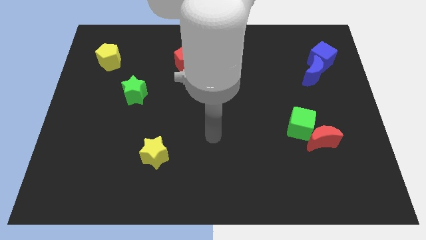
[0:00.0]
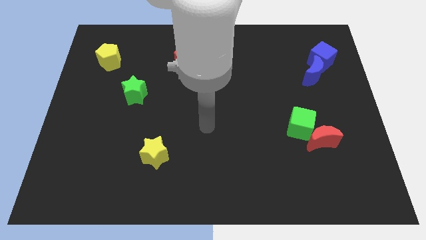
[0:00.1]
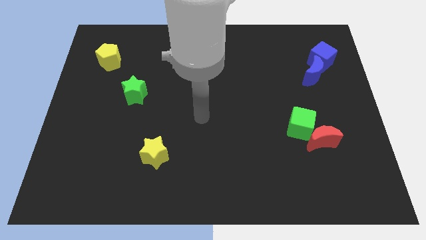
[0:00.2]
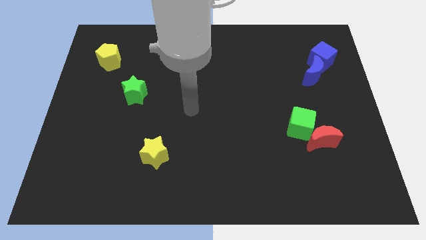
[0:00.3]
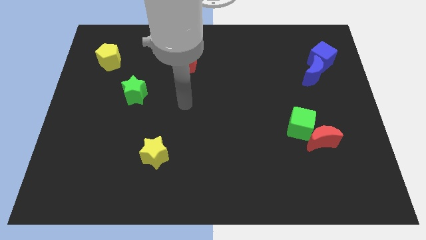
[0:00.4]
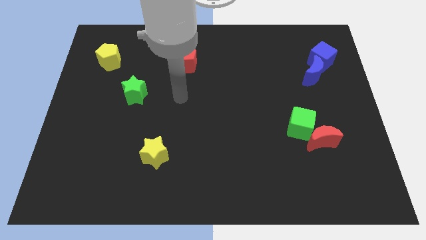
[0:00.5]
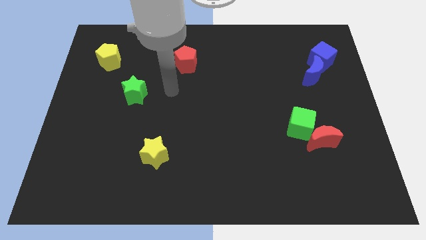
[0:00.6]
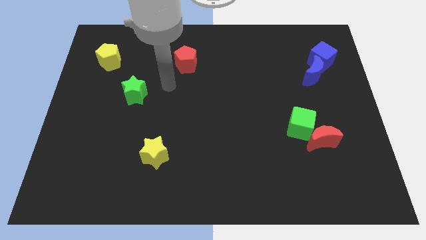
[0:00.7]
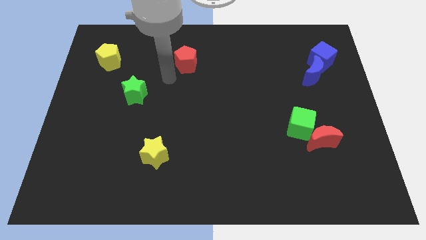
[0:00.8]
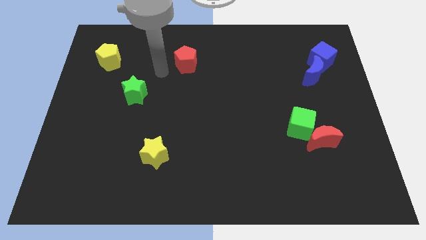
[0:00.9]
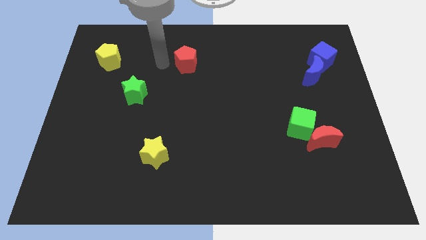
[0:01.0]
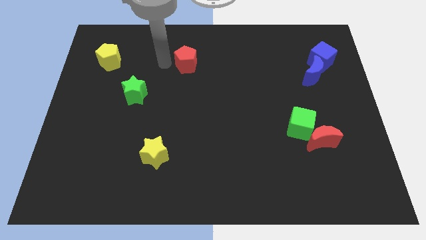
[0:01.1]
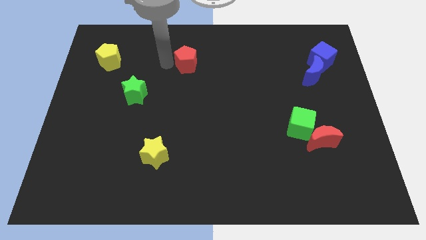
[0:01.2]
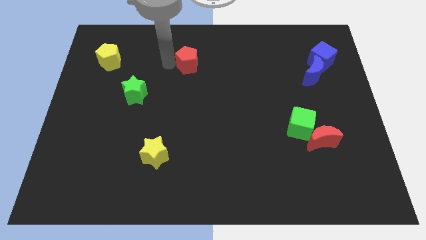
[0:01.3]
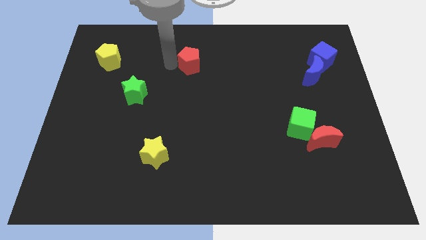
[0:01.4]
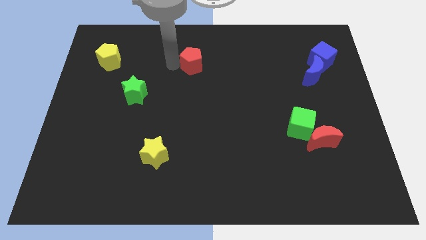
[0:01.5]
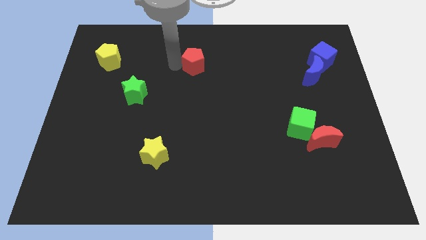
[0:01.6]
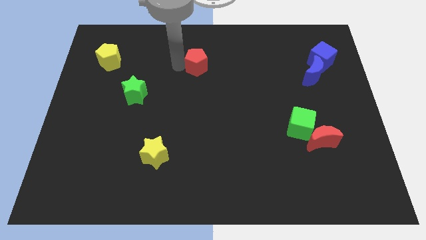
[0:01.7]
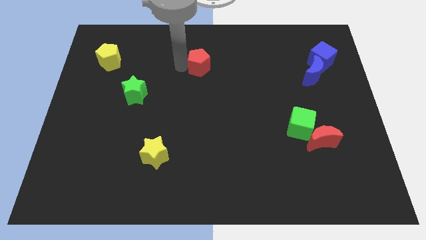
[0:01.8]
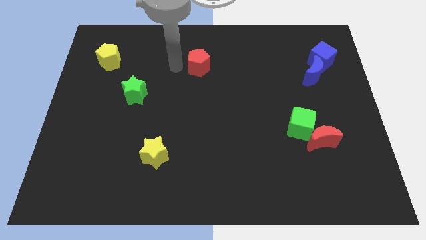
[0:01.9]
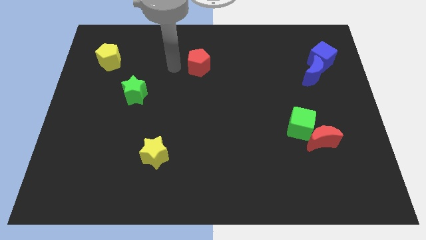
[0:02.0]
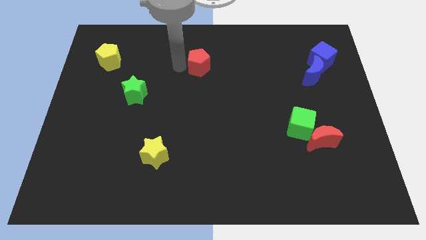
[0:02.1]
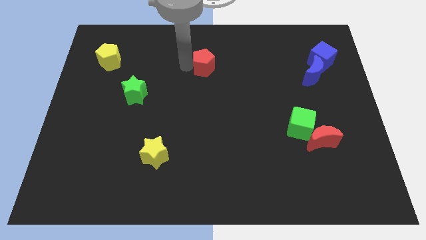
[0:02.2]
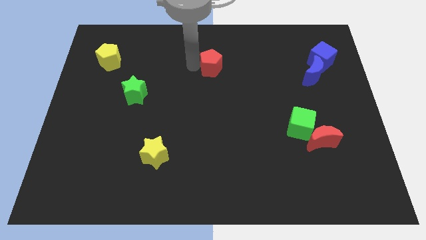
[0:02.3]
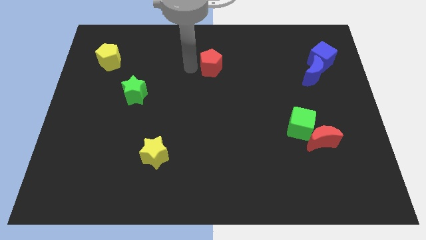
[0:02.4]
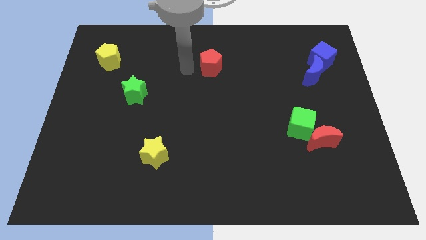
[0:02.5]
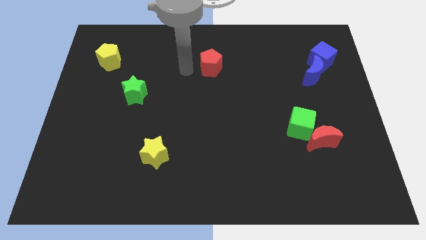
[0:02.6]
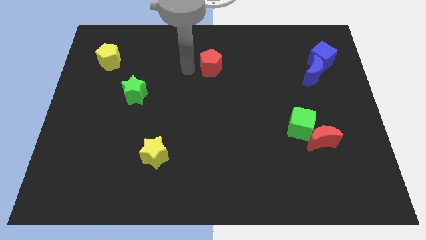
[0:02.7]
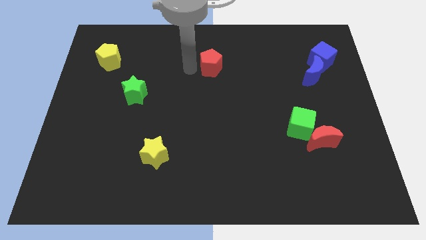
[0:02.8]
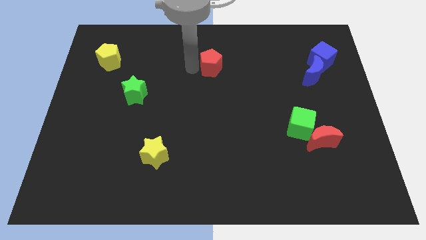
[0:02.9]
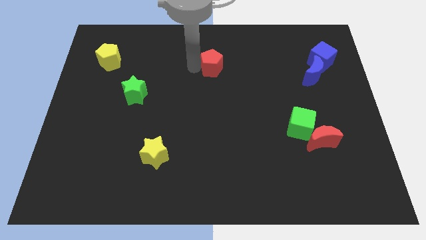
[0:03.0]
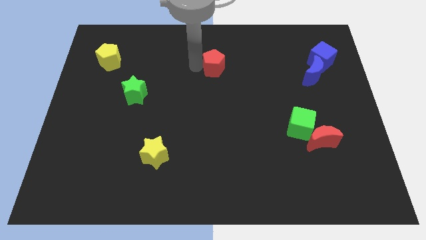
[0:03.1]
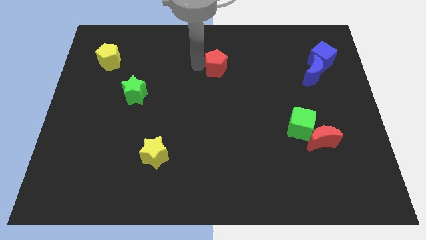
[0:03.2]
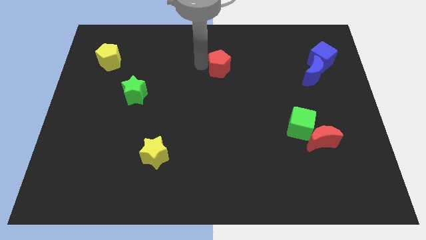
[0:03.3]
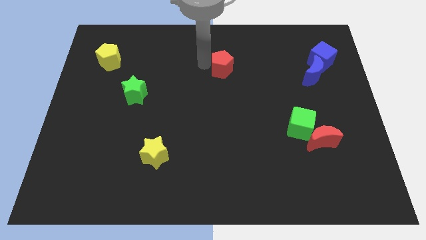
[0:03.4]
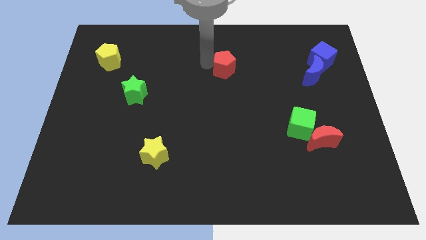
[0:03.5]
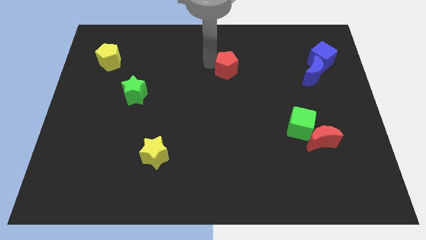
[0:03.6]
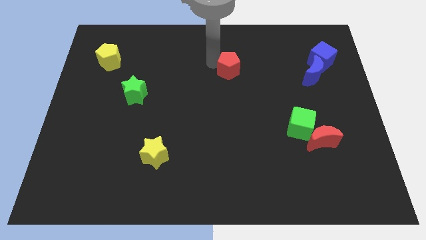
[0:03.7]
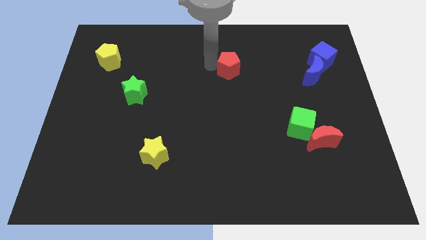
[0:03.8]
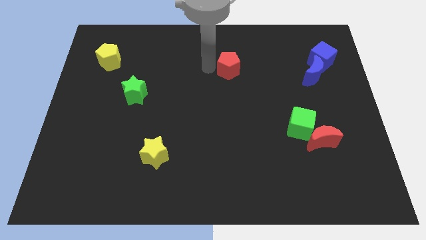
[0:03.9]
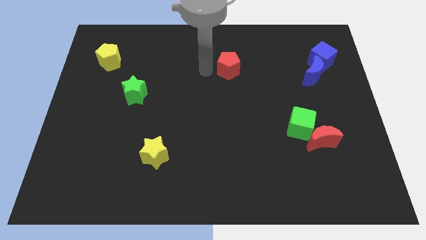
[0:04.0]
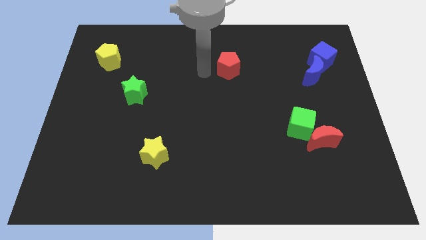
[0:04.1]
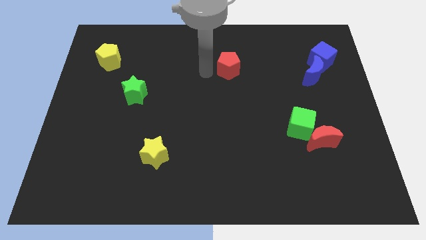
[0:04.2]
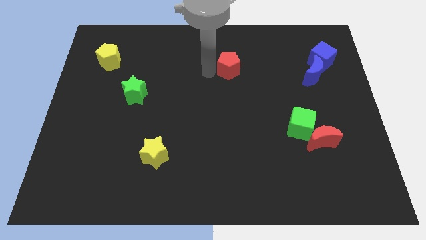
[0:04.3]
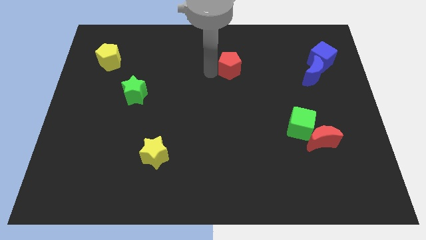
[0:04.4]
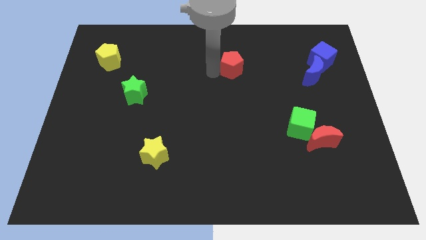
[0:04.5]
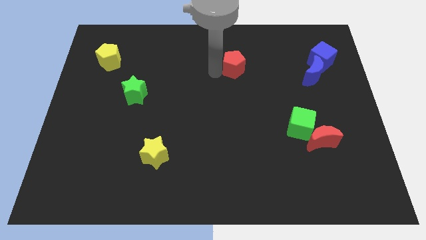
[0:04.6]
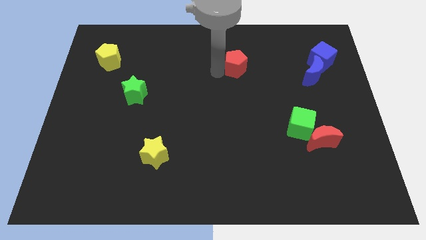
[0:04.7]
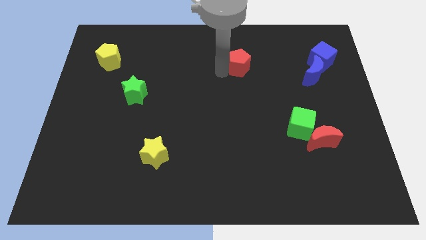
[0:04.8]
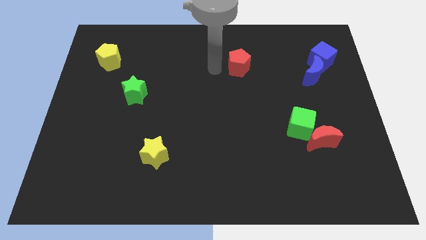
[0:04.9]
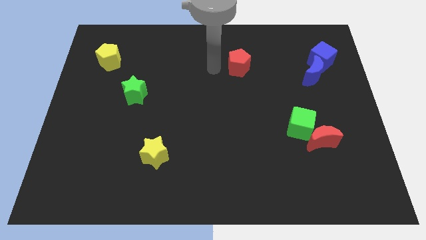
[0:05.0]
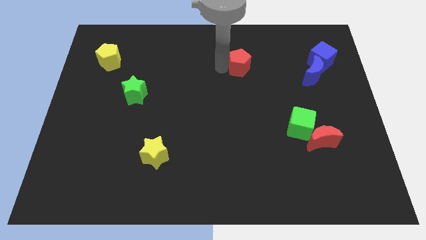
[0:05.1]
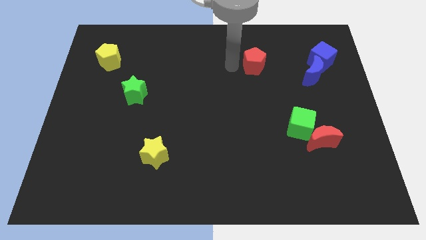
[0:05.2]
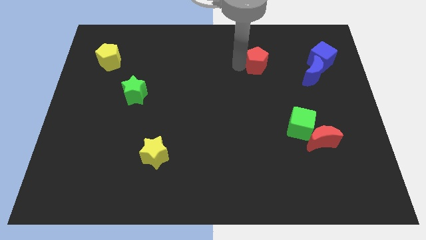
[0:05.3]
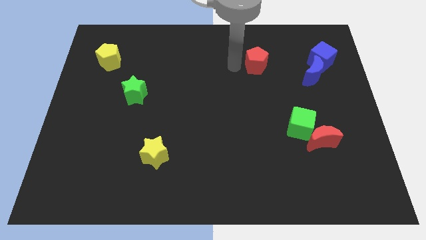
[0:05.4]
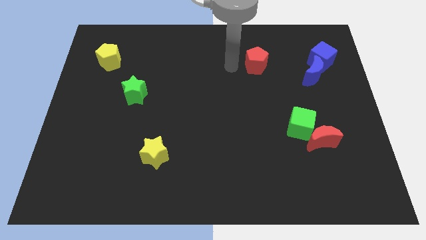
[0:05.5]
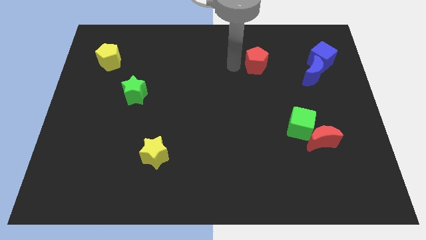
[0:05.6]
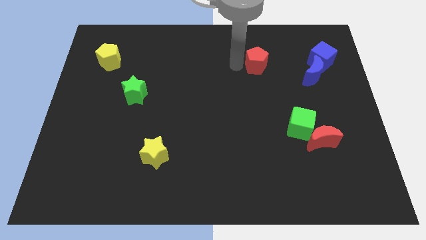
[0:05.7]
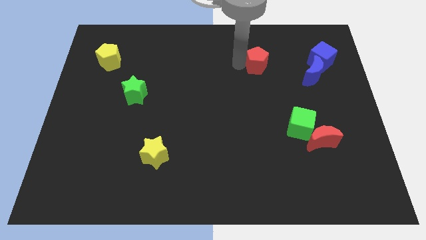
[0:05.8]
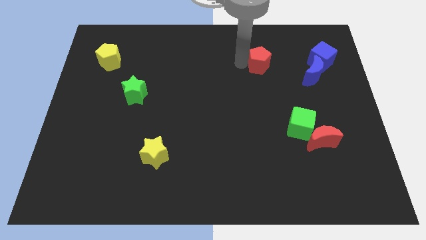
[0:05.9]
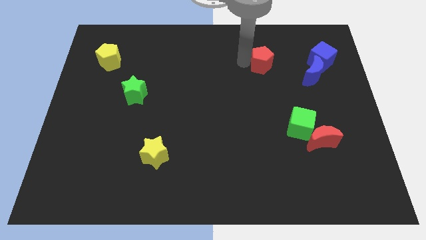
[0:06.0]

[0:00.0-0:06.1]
slide the red pentagon to the left side of the blue cube

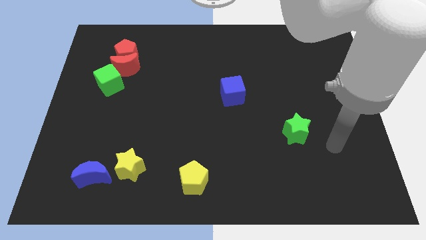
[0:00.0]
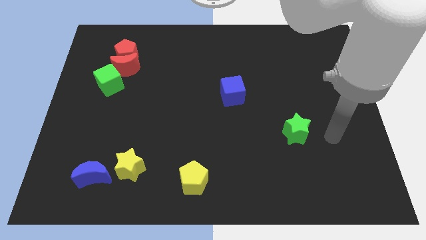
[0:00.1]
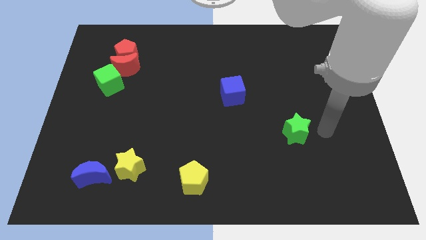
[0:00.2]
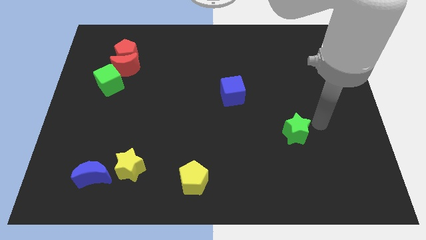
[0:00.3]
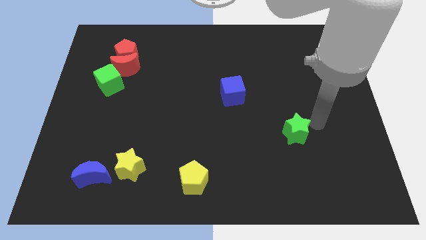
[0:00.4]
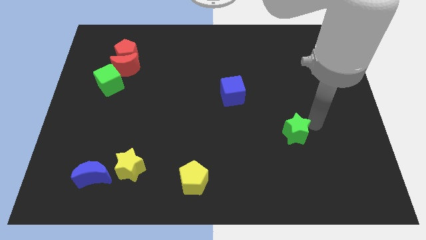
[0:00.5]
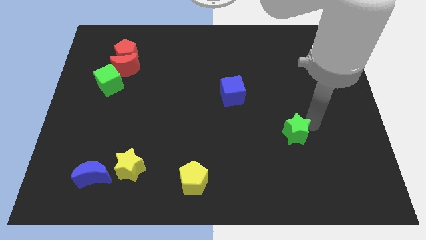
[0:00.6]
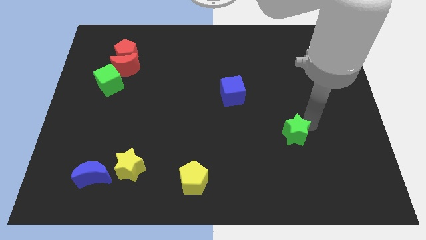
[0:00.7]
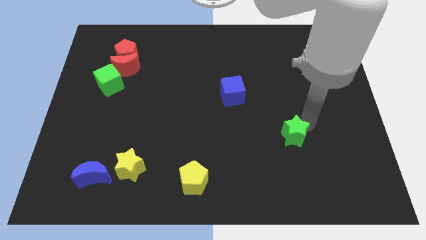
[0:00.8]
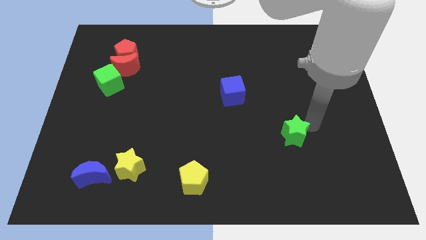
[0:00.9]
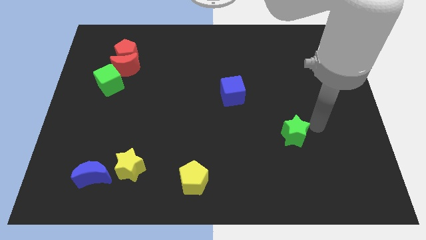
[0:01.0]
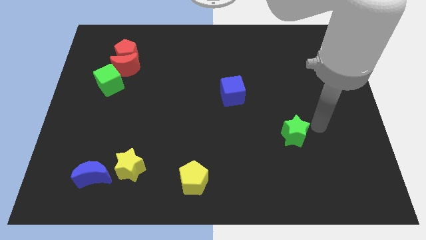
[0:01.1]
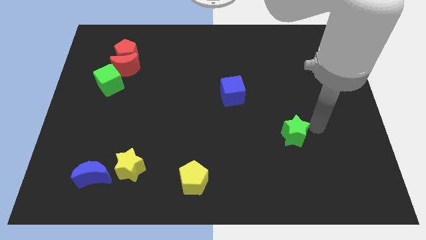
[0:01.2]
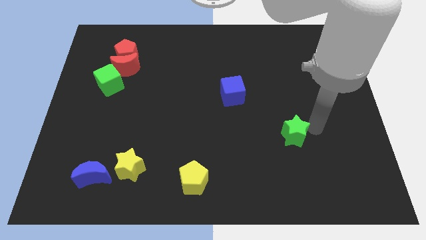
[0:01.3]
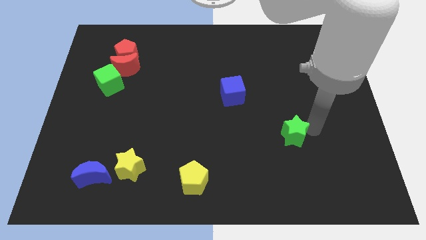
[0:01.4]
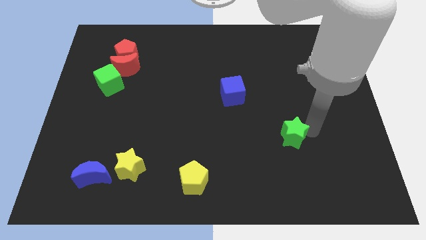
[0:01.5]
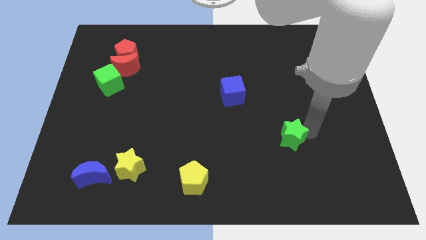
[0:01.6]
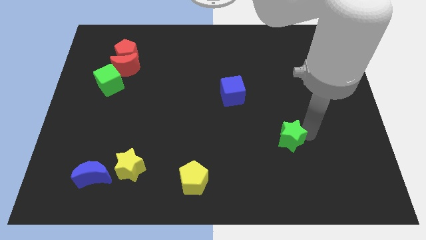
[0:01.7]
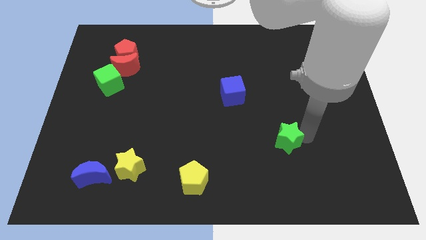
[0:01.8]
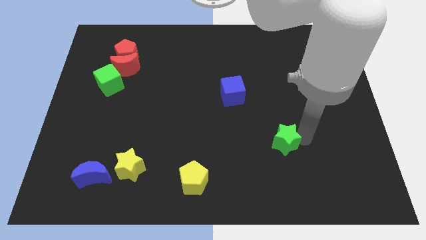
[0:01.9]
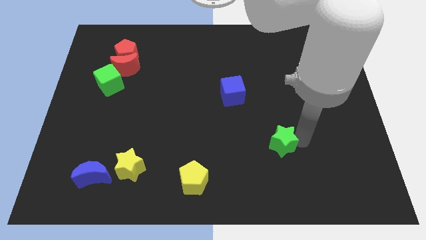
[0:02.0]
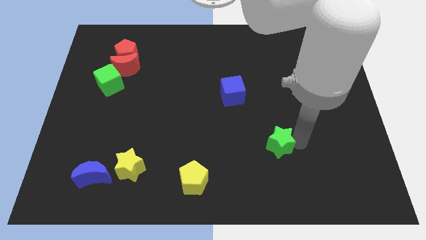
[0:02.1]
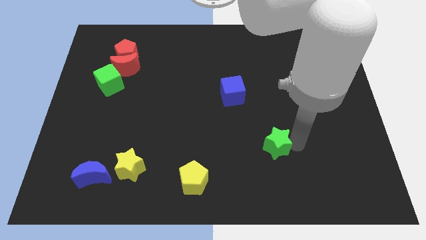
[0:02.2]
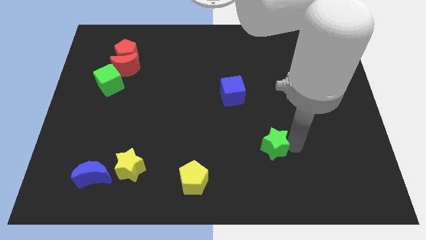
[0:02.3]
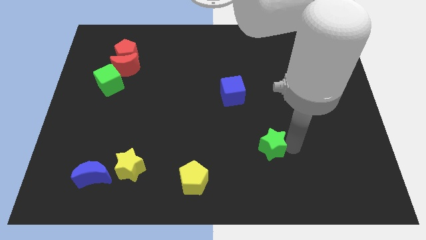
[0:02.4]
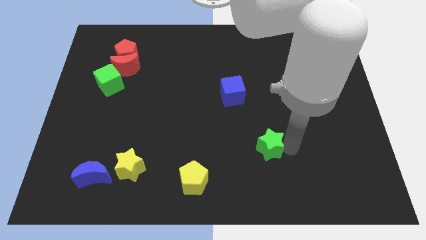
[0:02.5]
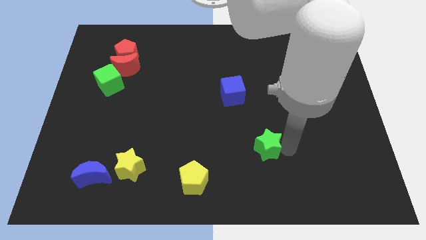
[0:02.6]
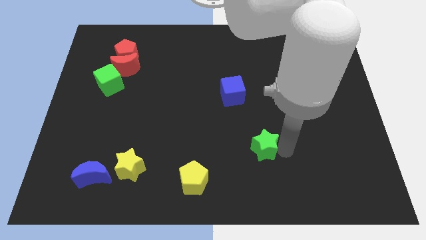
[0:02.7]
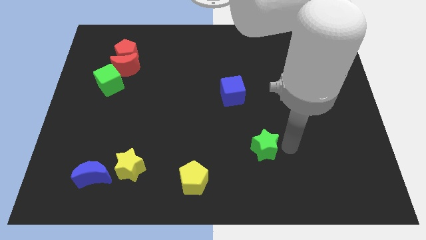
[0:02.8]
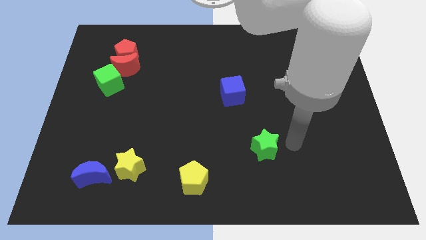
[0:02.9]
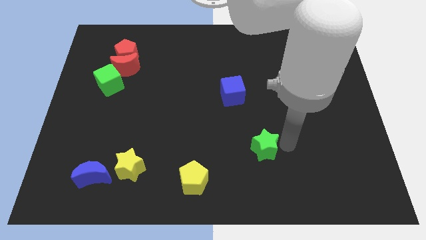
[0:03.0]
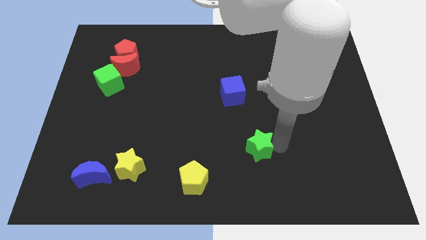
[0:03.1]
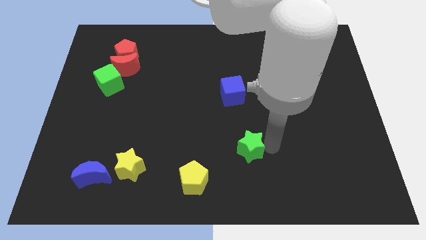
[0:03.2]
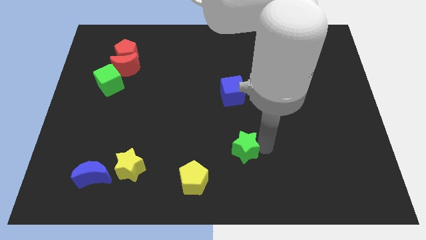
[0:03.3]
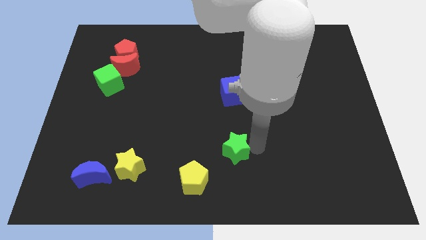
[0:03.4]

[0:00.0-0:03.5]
slide the green star to the top right side of the yellow pentagon
